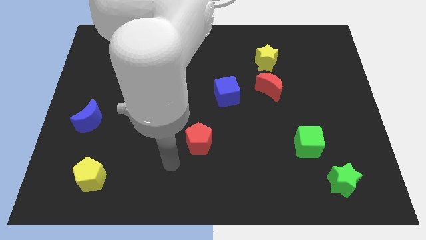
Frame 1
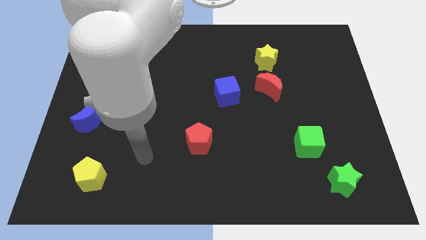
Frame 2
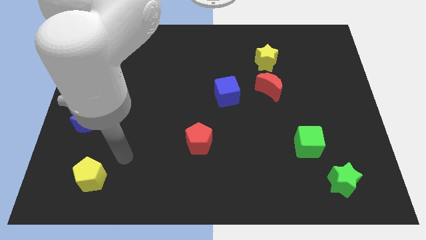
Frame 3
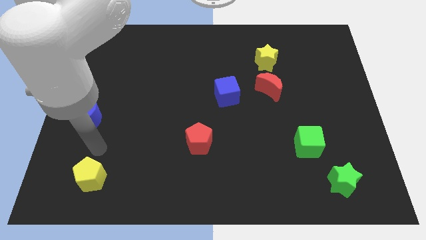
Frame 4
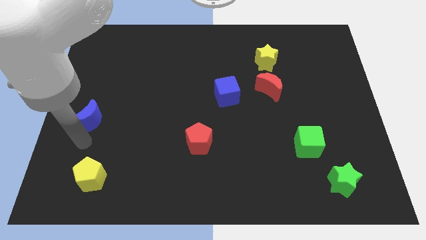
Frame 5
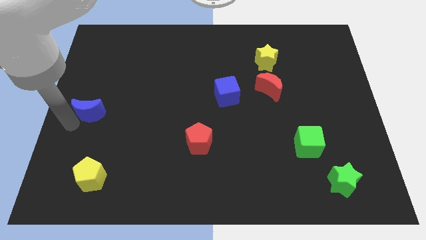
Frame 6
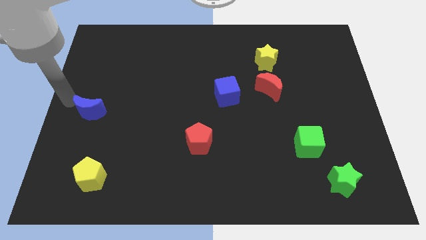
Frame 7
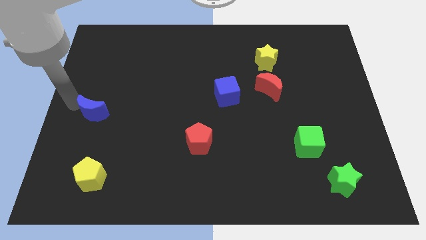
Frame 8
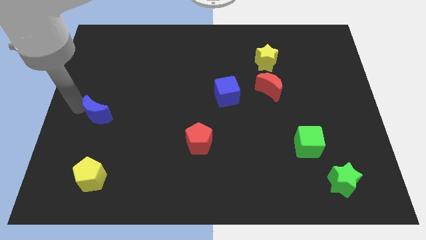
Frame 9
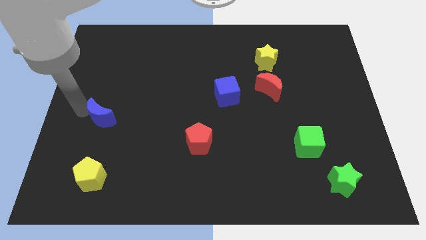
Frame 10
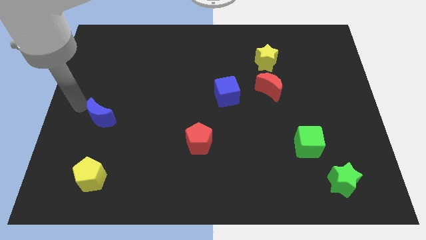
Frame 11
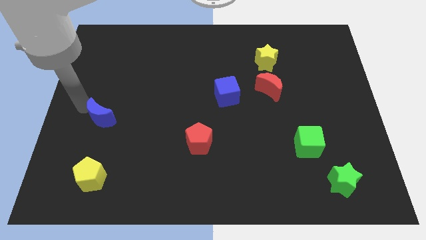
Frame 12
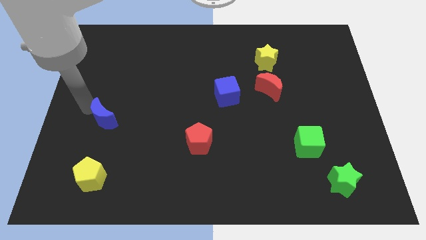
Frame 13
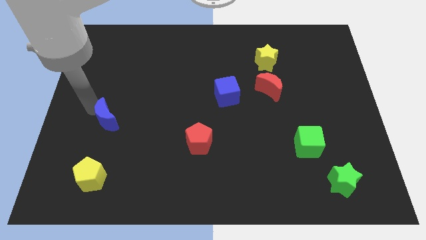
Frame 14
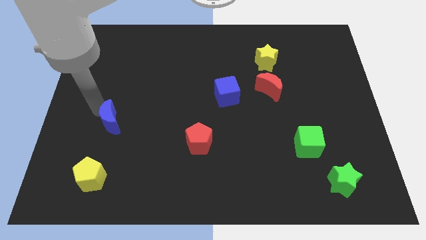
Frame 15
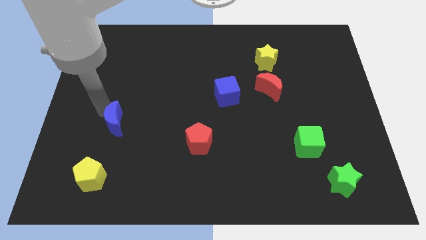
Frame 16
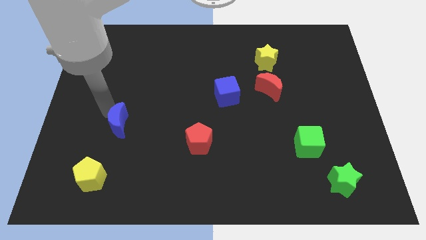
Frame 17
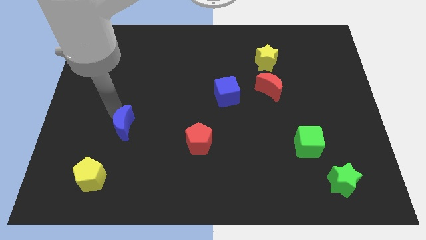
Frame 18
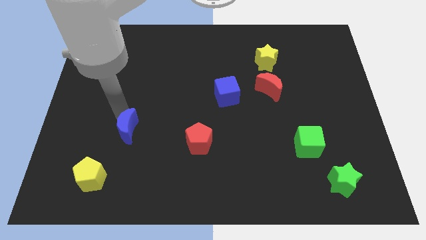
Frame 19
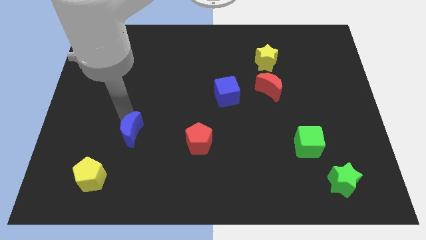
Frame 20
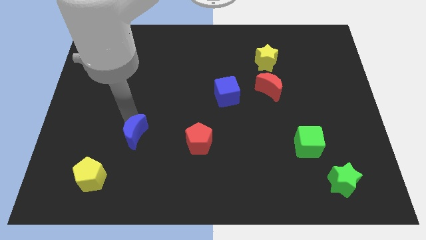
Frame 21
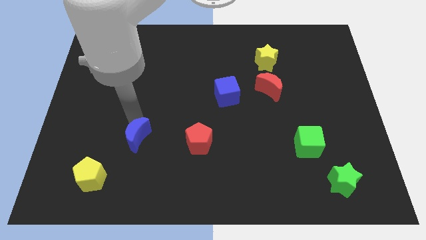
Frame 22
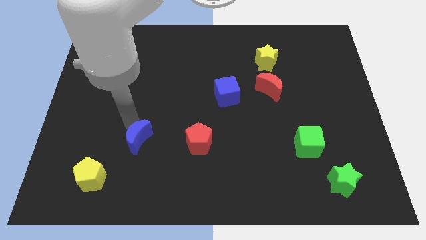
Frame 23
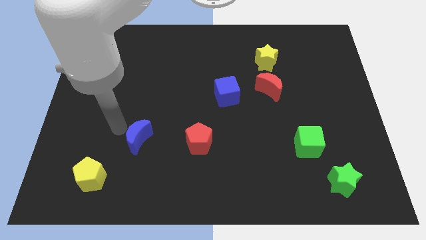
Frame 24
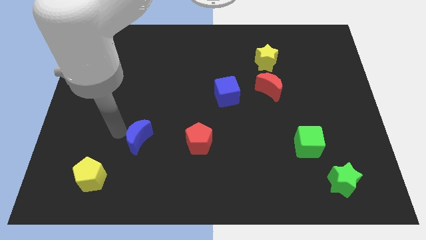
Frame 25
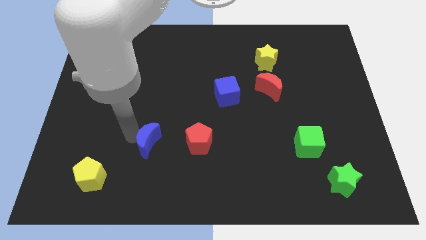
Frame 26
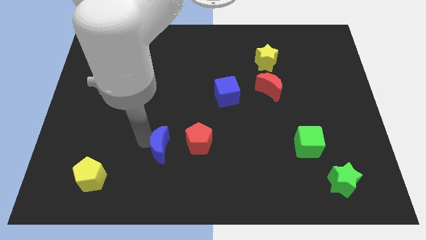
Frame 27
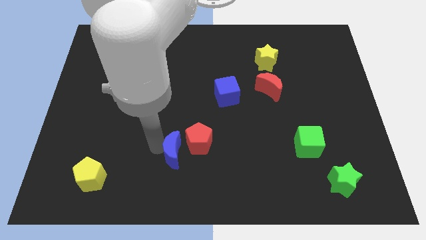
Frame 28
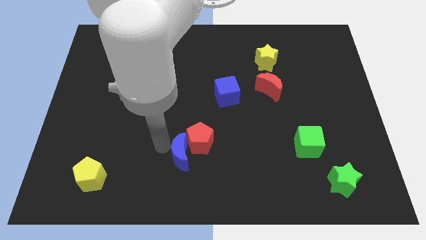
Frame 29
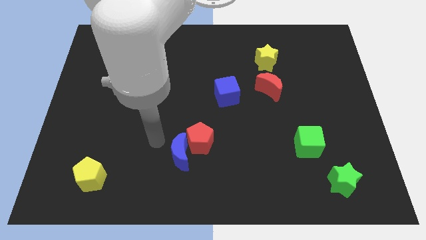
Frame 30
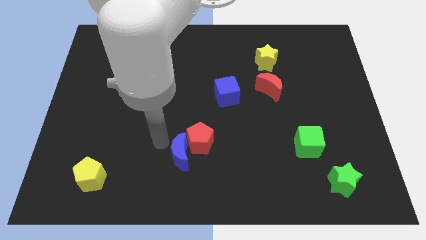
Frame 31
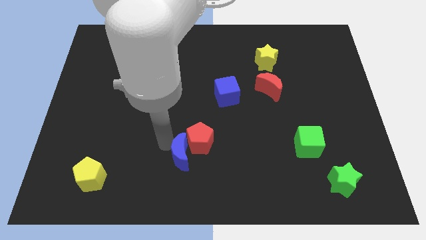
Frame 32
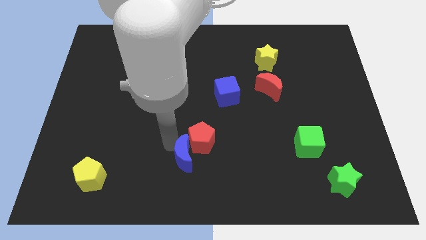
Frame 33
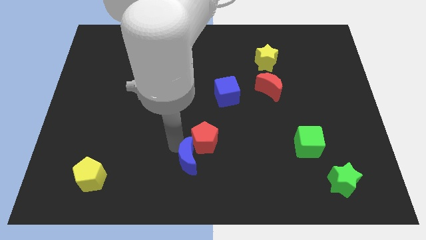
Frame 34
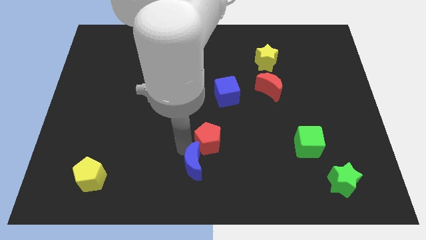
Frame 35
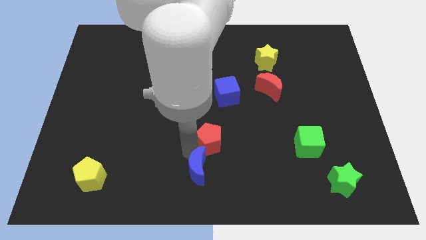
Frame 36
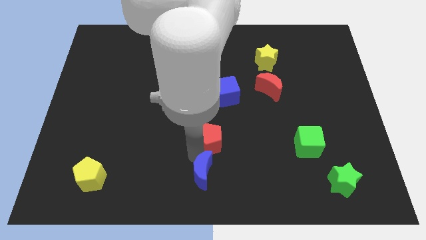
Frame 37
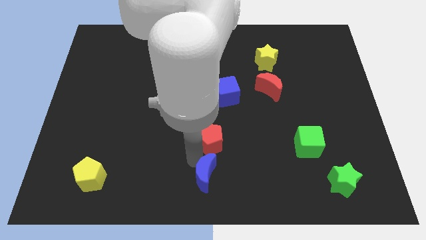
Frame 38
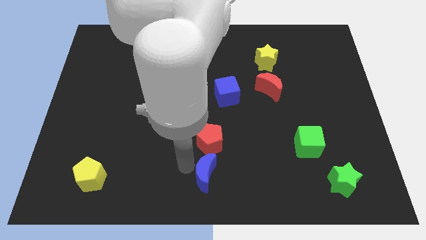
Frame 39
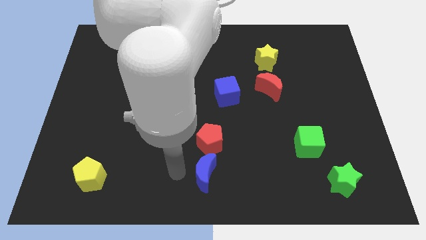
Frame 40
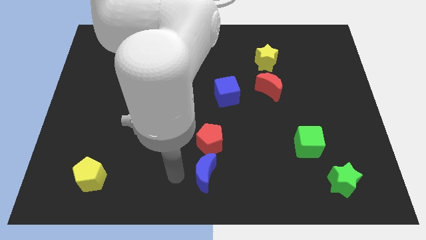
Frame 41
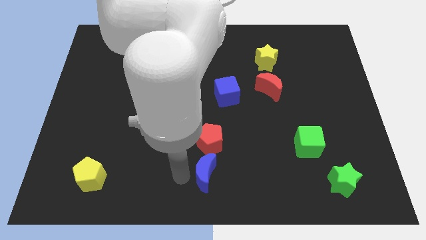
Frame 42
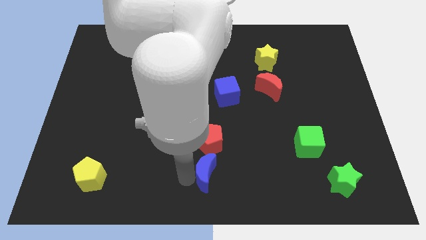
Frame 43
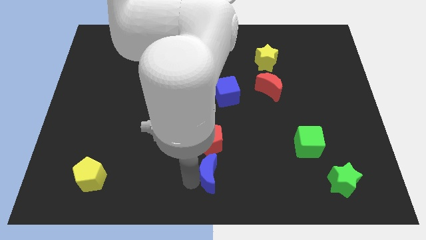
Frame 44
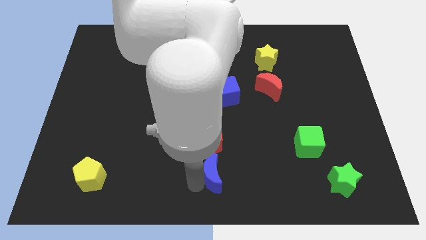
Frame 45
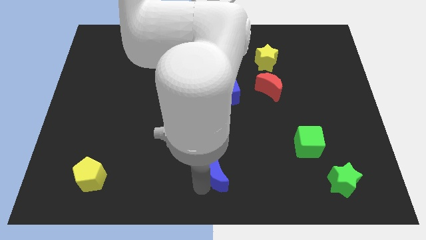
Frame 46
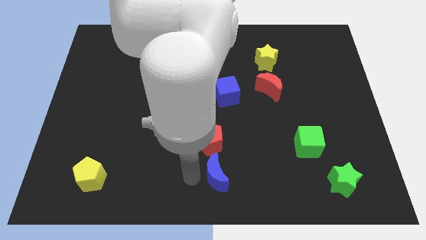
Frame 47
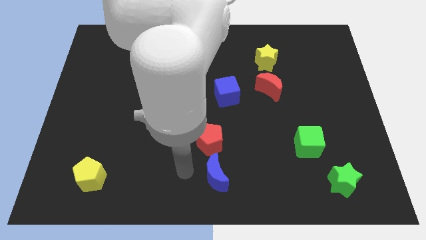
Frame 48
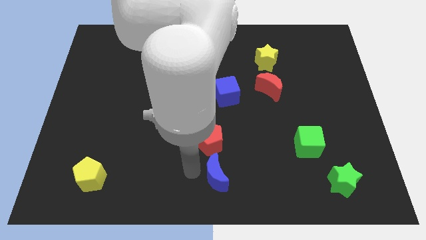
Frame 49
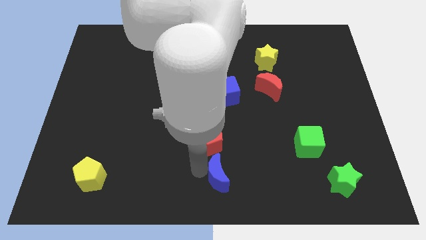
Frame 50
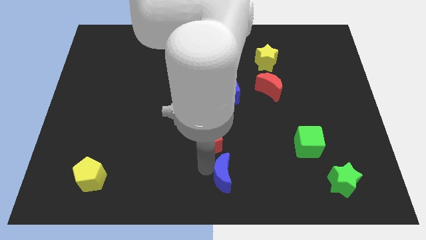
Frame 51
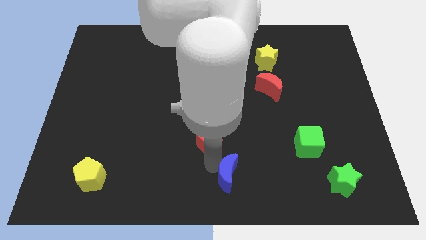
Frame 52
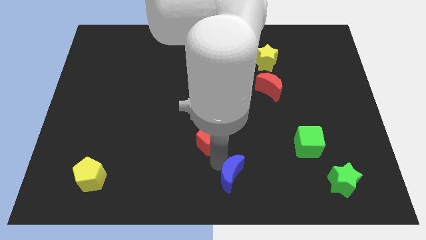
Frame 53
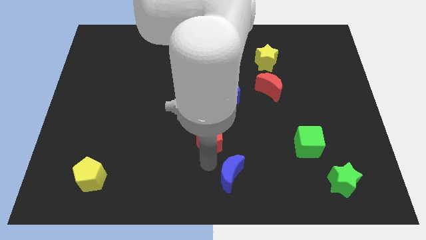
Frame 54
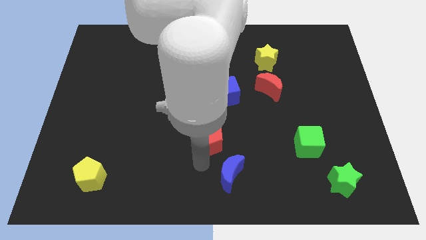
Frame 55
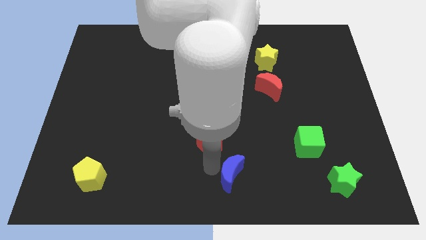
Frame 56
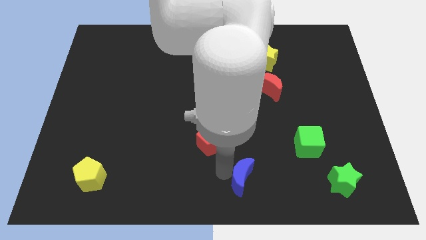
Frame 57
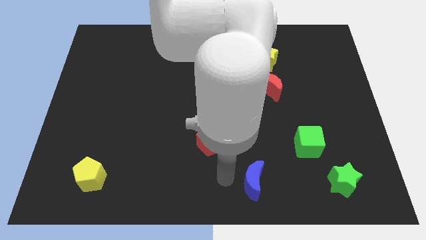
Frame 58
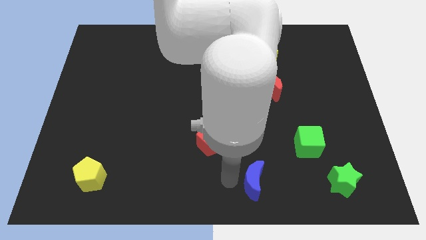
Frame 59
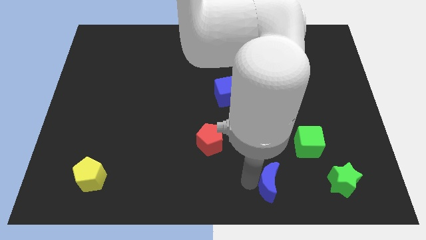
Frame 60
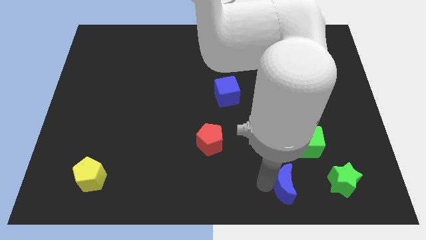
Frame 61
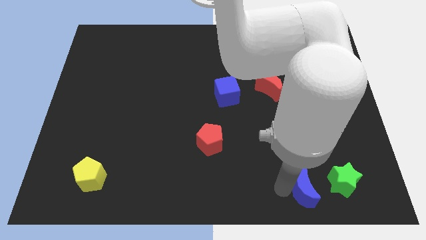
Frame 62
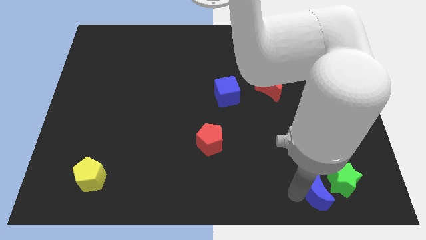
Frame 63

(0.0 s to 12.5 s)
move the blue moon close to the green star

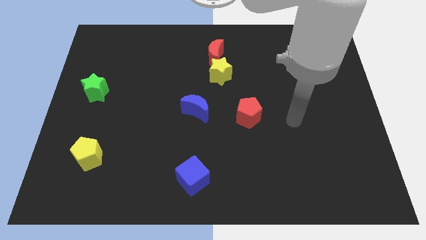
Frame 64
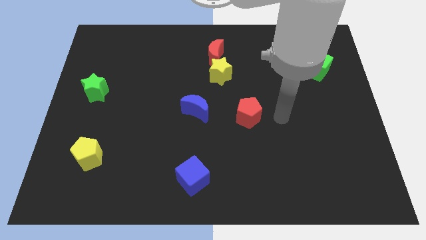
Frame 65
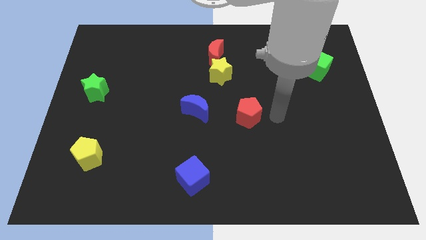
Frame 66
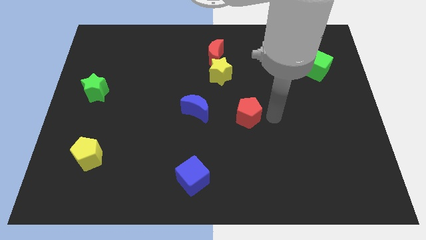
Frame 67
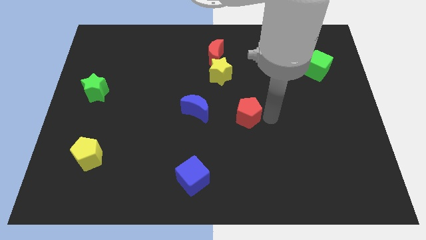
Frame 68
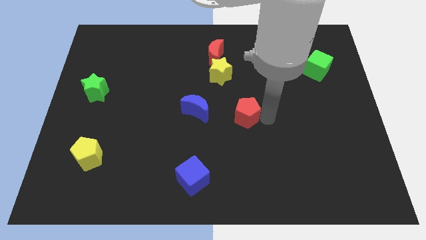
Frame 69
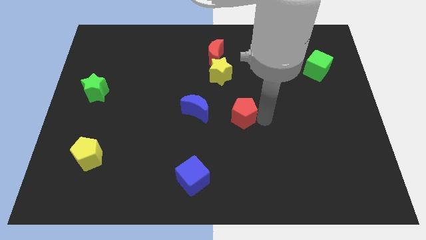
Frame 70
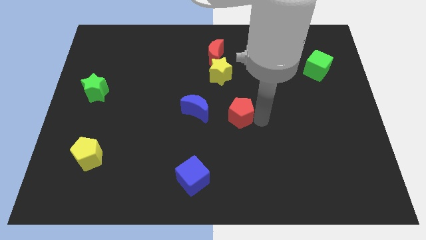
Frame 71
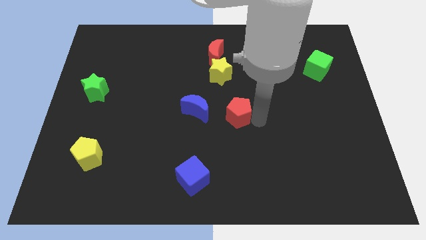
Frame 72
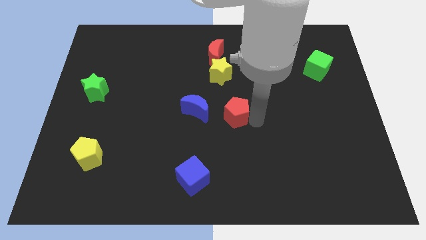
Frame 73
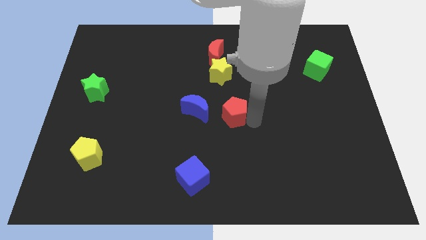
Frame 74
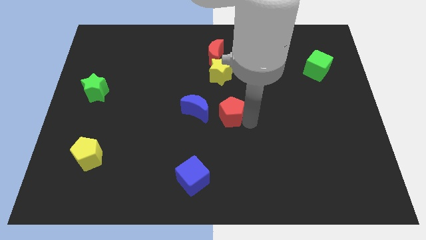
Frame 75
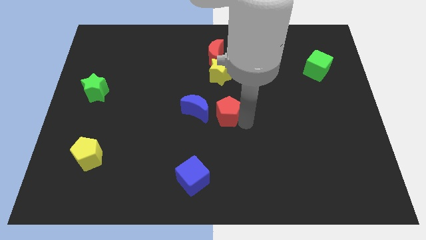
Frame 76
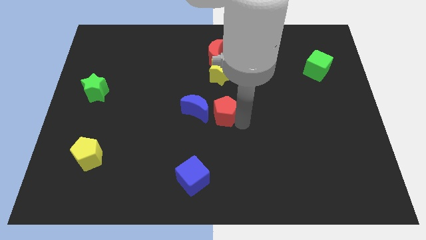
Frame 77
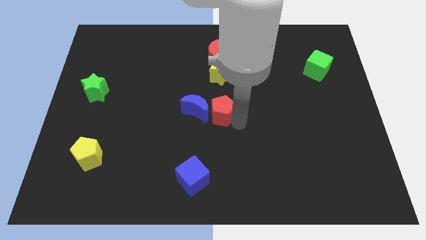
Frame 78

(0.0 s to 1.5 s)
put the red pentagon towards the blue moon

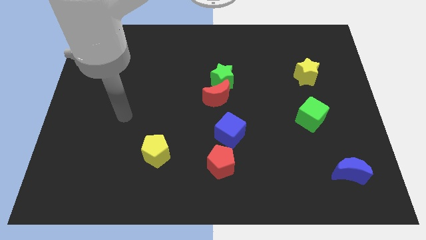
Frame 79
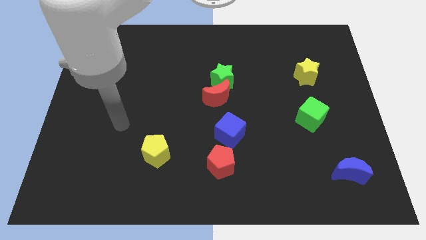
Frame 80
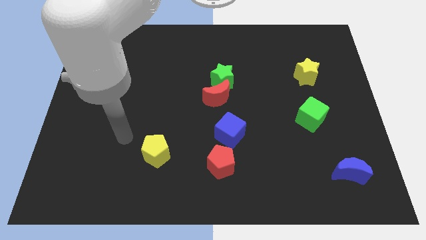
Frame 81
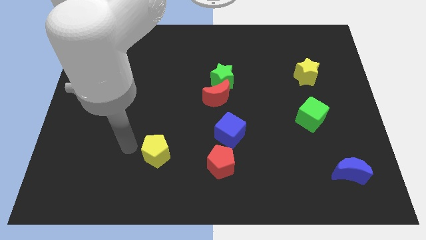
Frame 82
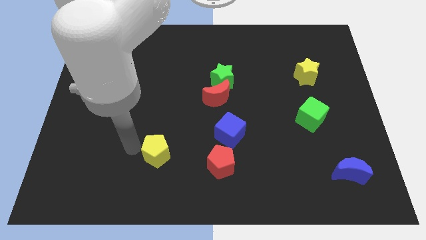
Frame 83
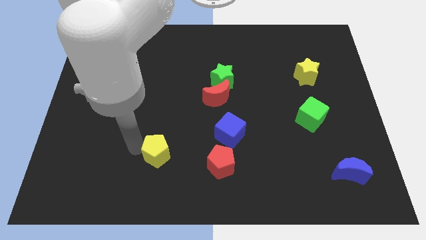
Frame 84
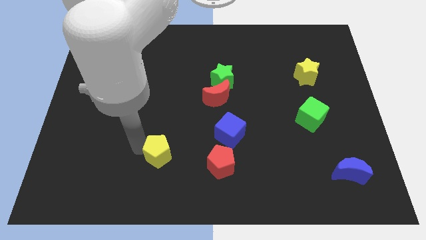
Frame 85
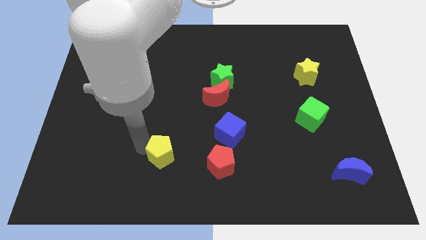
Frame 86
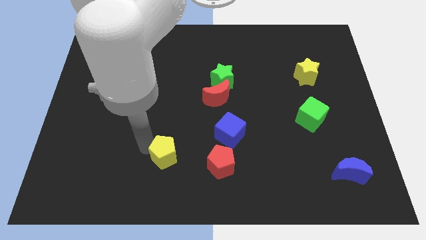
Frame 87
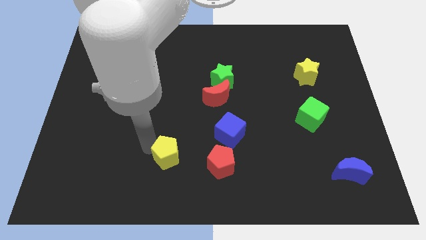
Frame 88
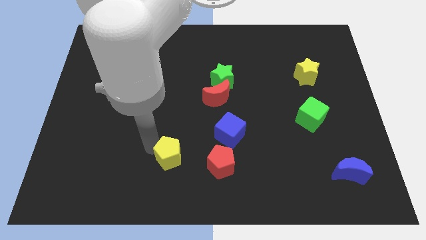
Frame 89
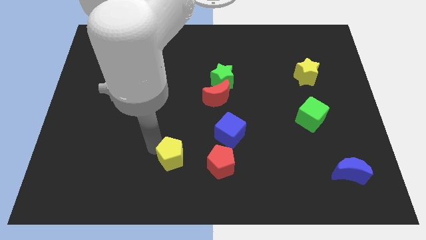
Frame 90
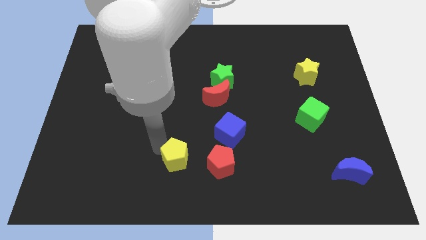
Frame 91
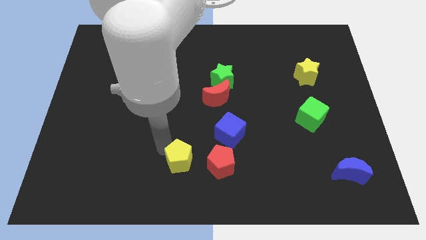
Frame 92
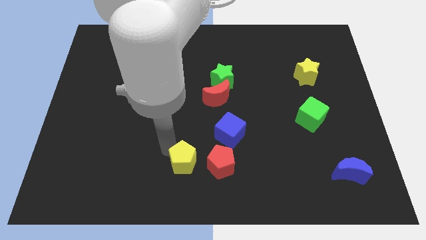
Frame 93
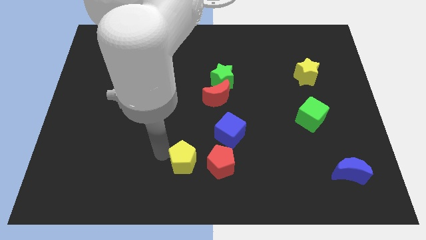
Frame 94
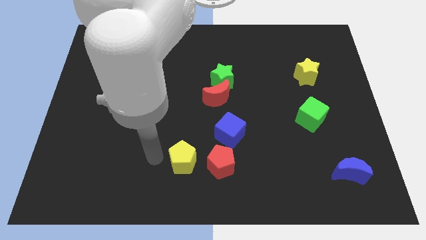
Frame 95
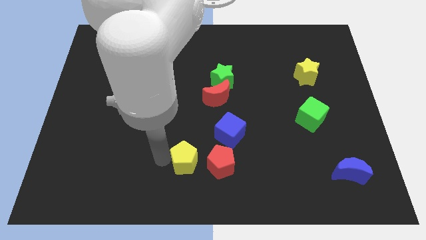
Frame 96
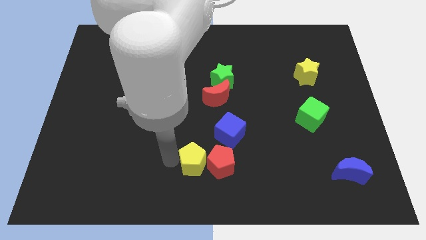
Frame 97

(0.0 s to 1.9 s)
move the yellow pentagon towards the red pentagon
